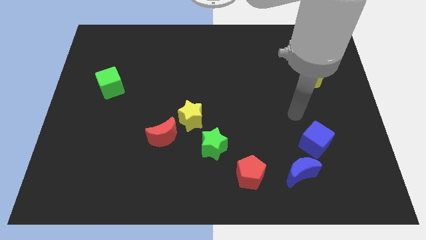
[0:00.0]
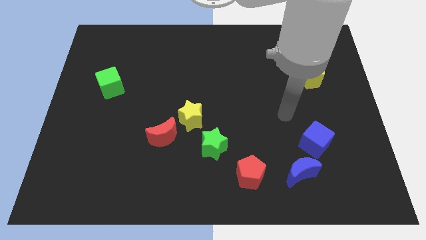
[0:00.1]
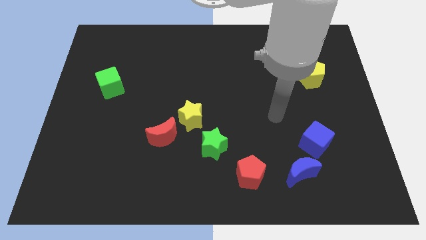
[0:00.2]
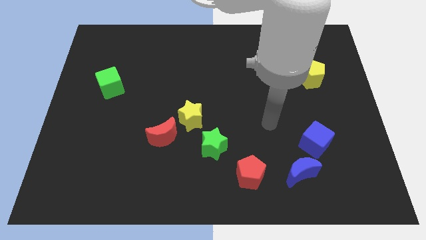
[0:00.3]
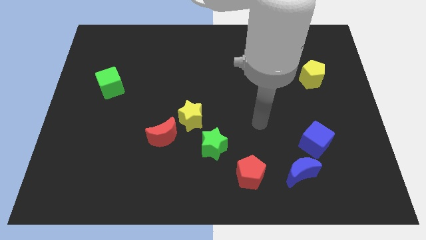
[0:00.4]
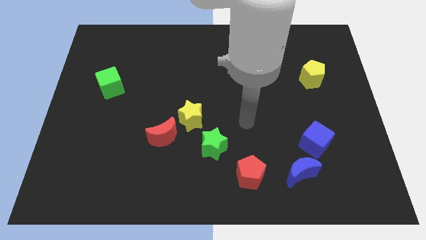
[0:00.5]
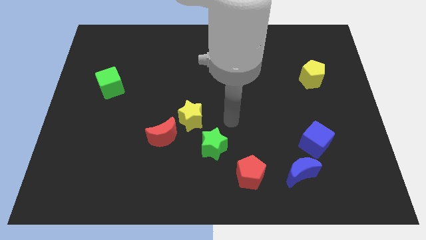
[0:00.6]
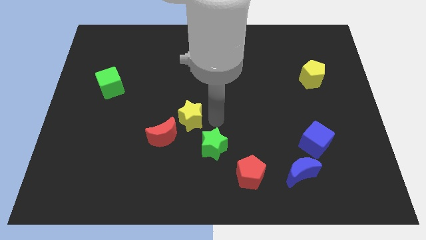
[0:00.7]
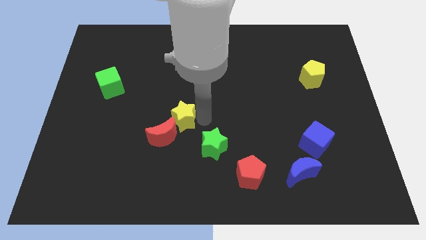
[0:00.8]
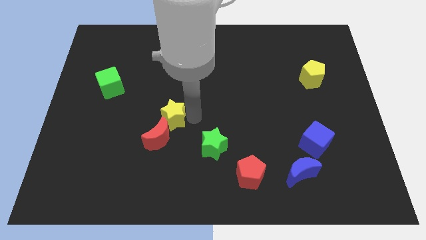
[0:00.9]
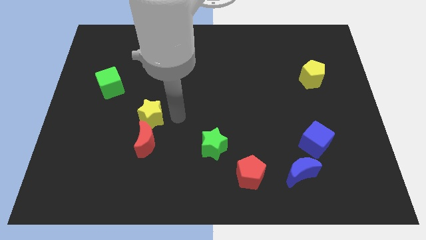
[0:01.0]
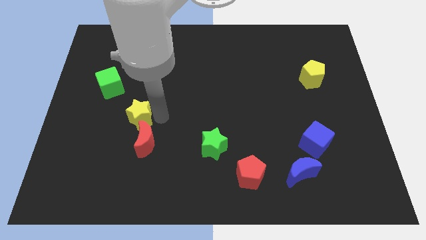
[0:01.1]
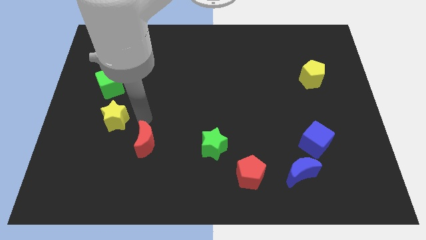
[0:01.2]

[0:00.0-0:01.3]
pull the red moon apart from the yellow star

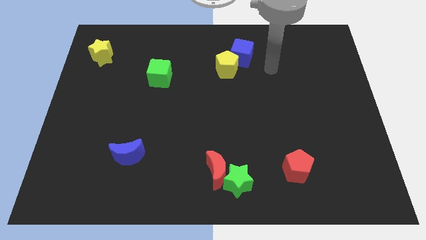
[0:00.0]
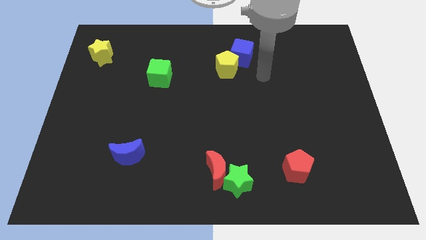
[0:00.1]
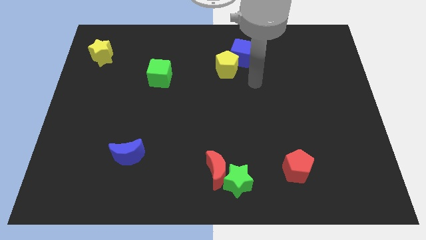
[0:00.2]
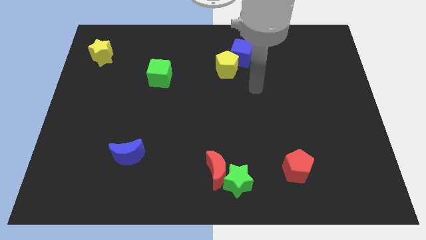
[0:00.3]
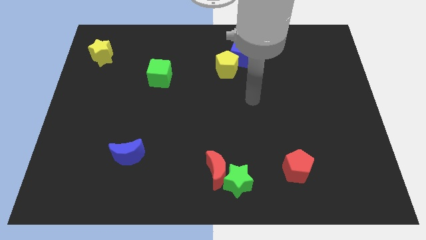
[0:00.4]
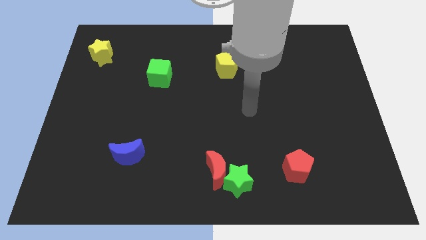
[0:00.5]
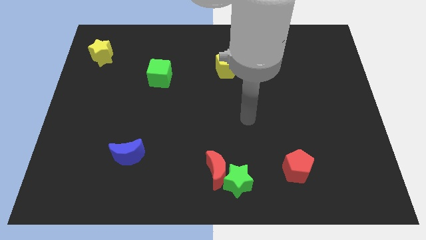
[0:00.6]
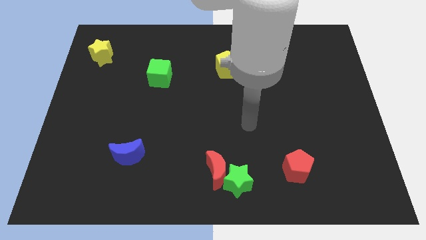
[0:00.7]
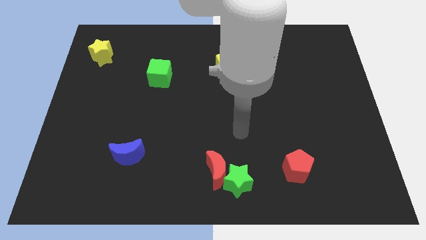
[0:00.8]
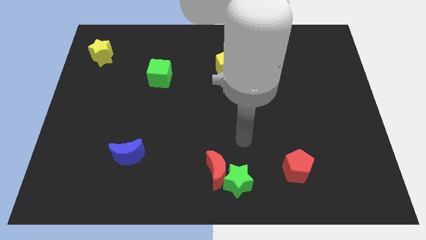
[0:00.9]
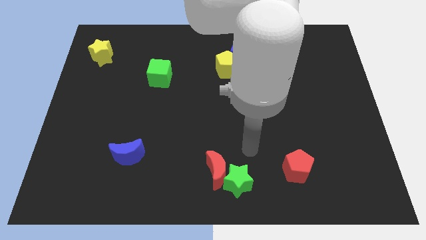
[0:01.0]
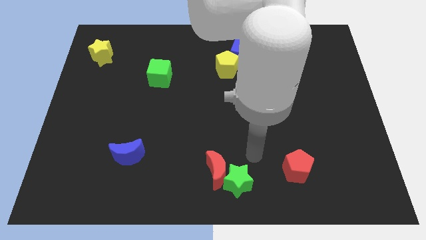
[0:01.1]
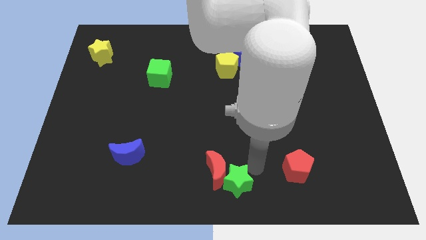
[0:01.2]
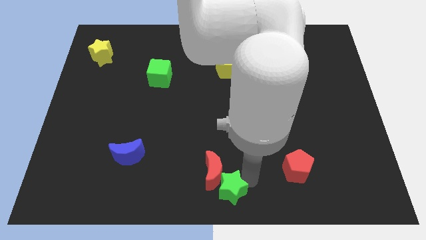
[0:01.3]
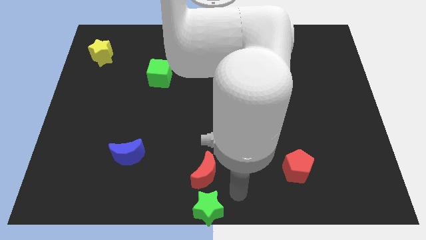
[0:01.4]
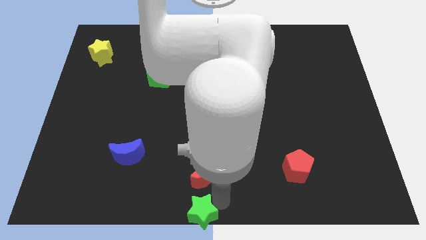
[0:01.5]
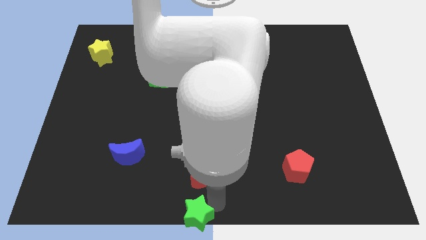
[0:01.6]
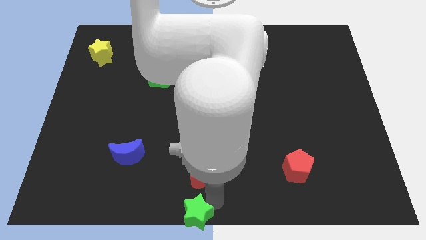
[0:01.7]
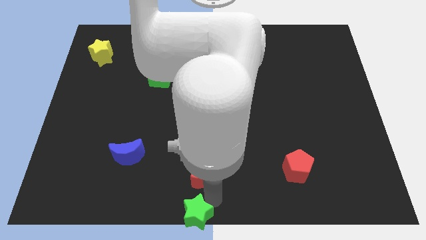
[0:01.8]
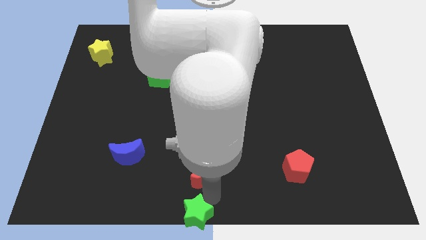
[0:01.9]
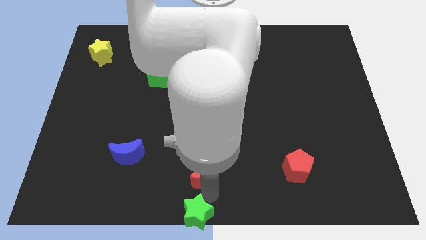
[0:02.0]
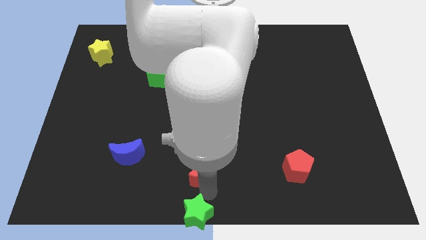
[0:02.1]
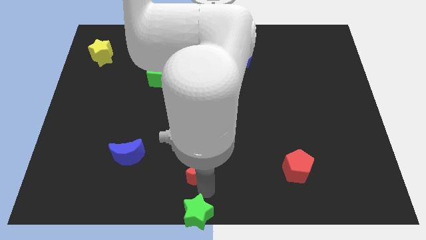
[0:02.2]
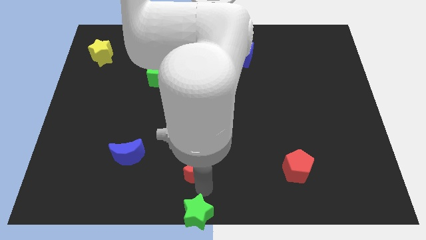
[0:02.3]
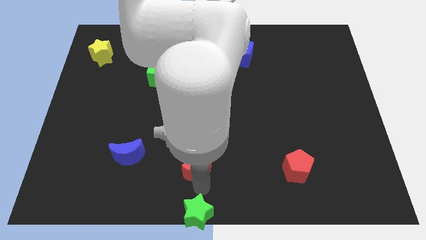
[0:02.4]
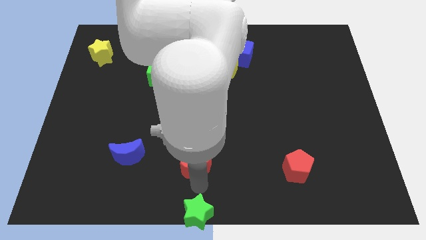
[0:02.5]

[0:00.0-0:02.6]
separate the red moon from the green star

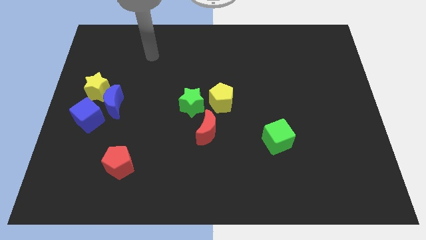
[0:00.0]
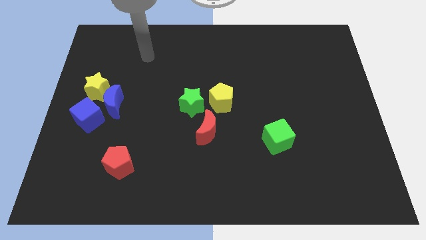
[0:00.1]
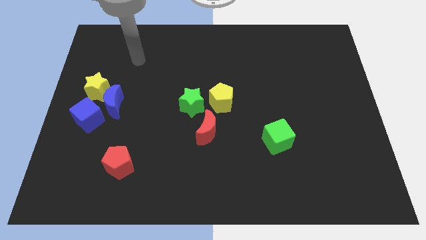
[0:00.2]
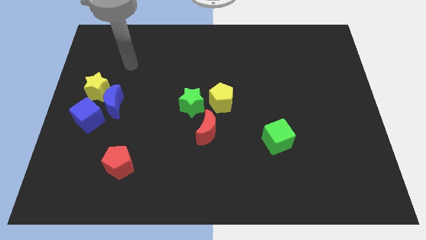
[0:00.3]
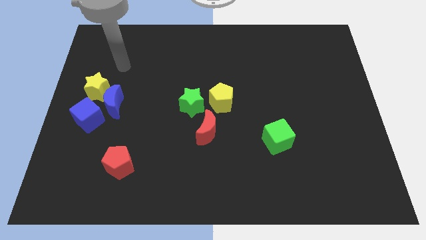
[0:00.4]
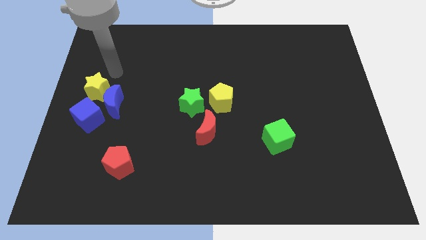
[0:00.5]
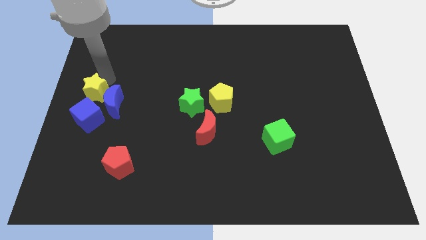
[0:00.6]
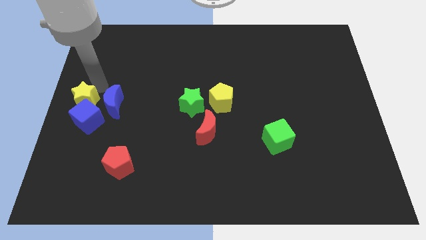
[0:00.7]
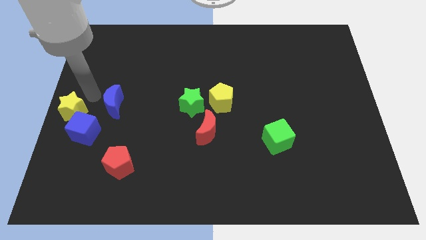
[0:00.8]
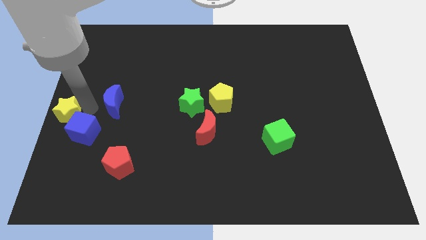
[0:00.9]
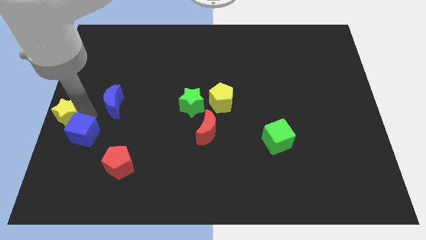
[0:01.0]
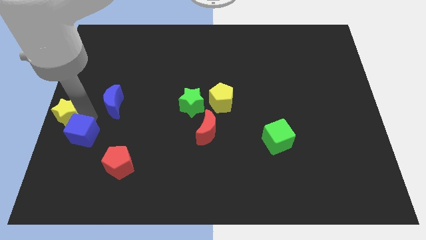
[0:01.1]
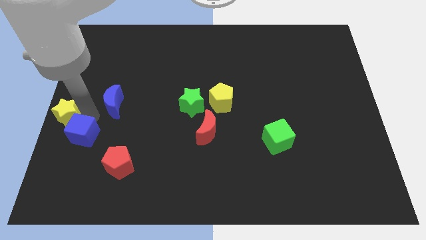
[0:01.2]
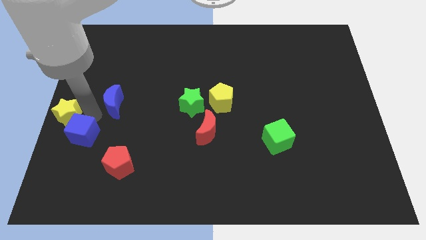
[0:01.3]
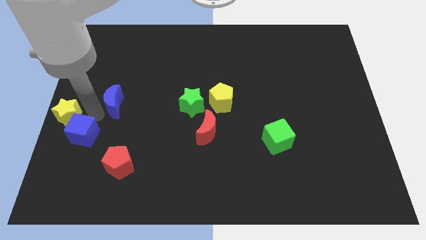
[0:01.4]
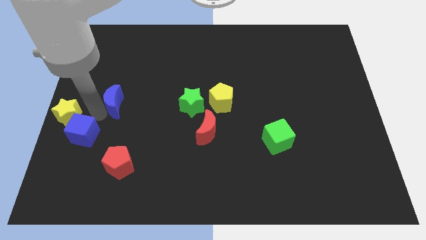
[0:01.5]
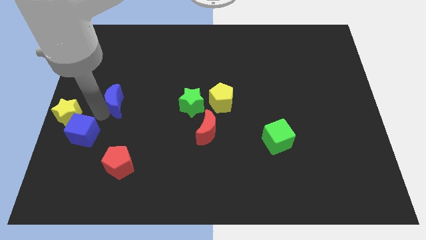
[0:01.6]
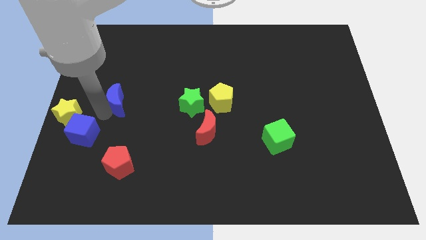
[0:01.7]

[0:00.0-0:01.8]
move the blue moon away from the blue cube and yellow star

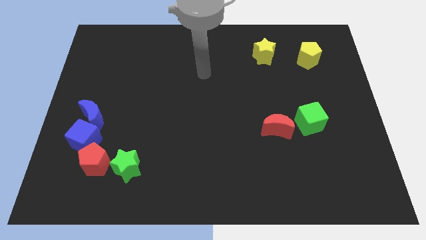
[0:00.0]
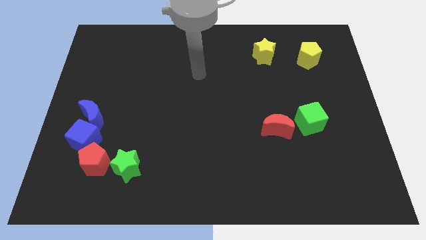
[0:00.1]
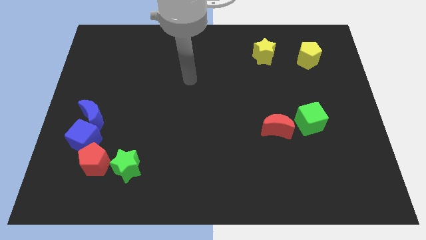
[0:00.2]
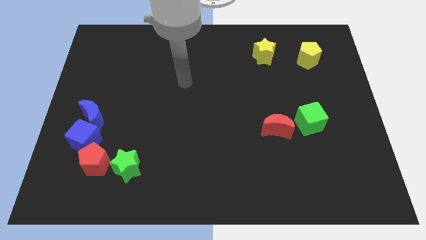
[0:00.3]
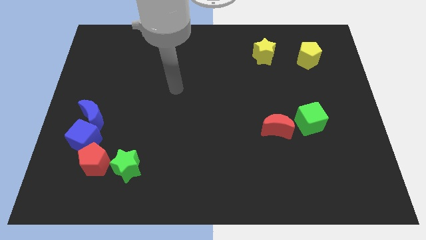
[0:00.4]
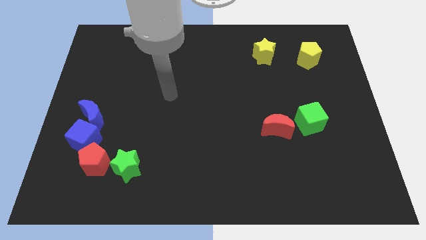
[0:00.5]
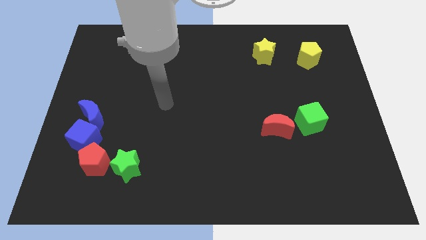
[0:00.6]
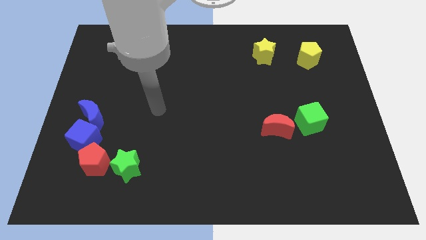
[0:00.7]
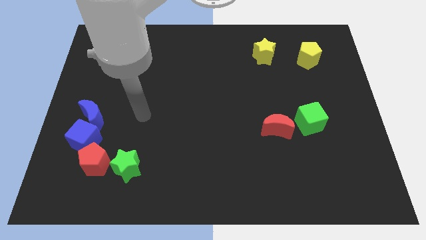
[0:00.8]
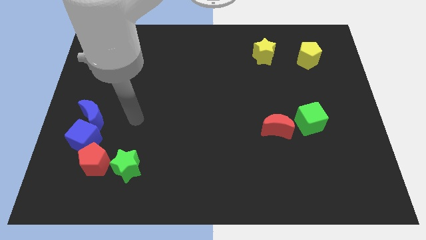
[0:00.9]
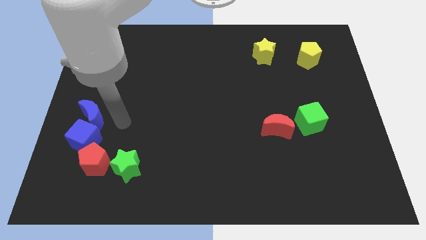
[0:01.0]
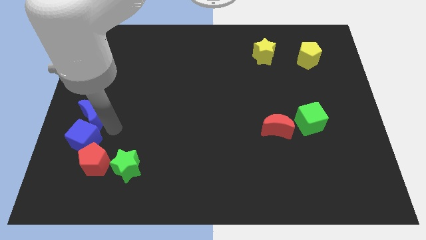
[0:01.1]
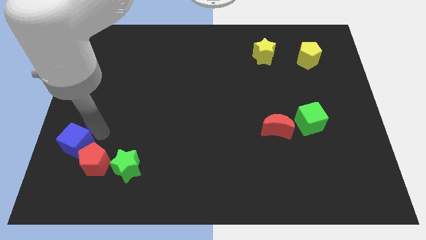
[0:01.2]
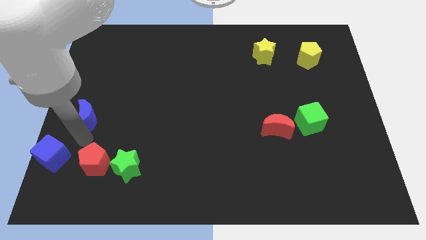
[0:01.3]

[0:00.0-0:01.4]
separate the blue moon from the blue cube

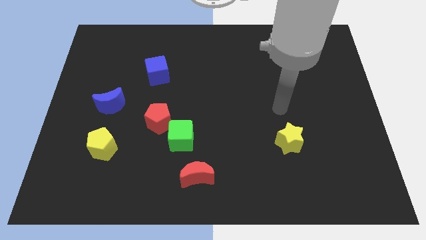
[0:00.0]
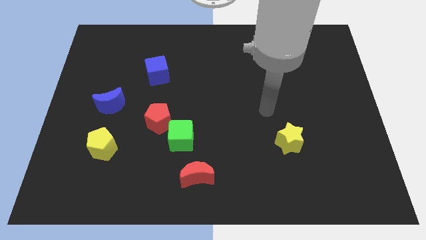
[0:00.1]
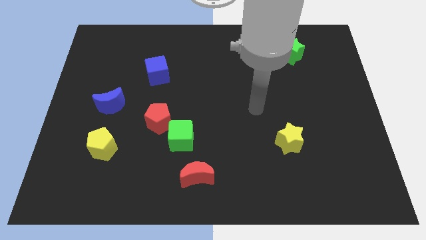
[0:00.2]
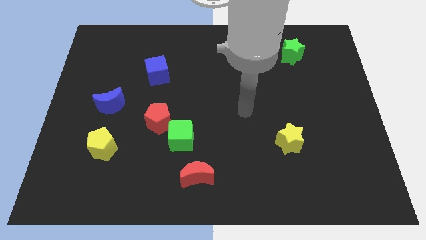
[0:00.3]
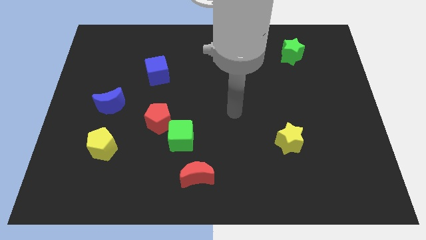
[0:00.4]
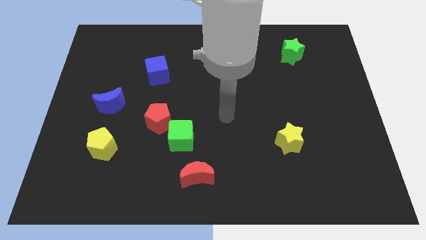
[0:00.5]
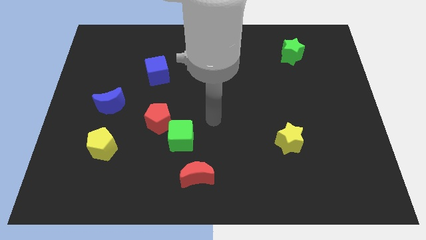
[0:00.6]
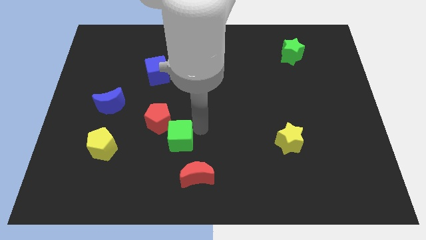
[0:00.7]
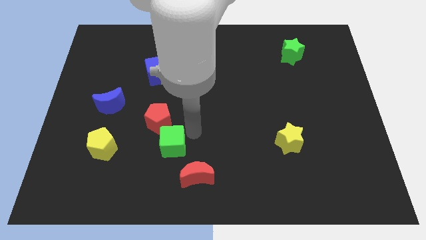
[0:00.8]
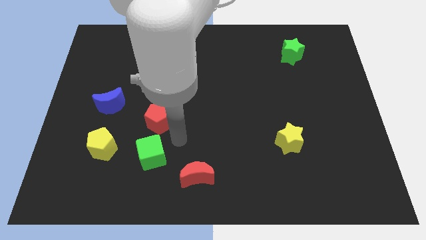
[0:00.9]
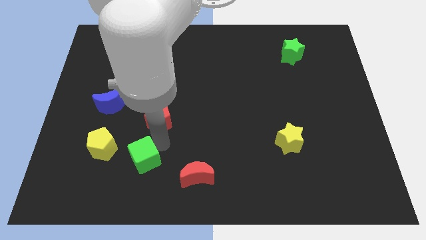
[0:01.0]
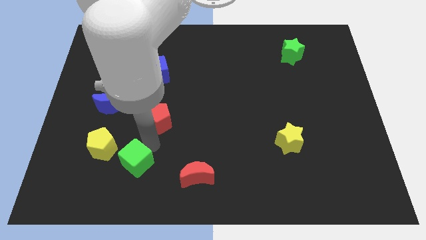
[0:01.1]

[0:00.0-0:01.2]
separate the red pentagon from the green cube

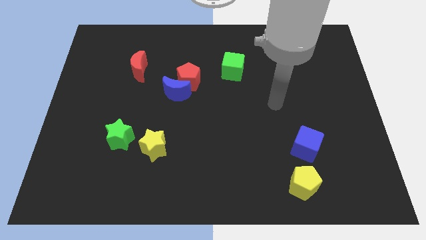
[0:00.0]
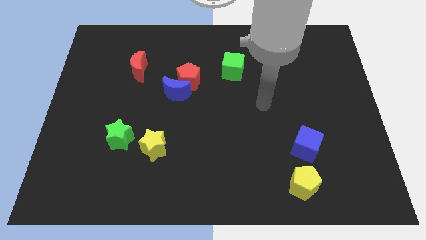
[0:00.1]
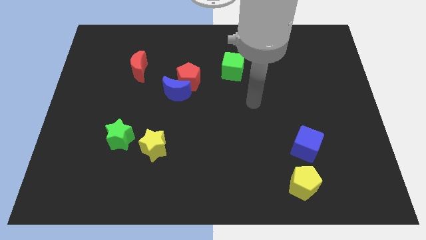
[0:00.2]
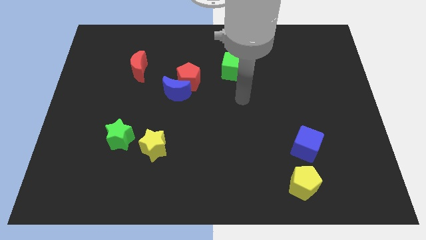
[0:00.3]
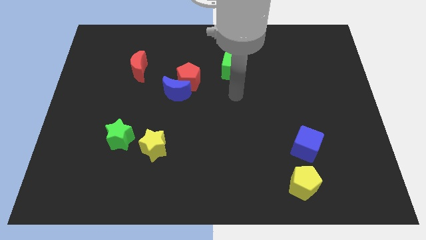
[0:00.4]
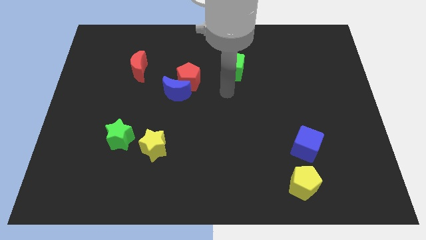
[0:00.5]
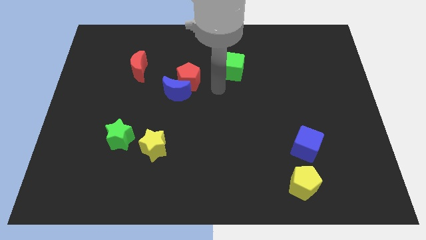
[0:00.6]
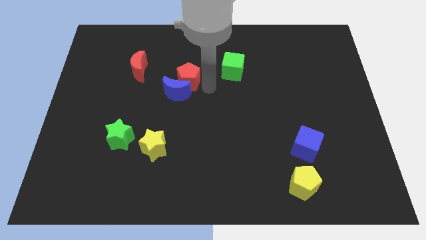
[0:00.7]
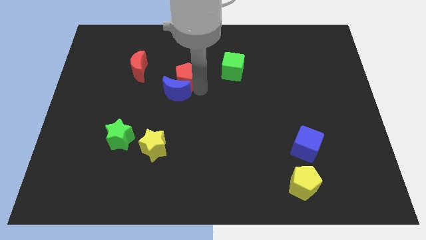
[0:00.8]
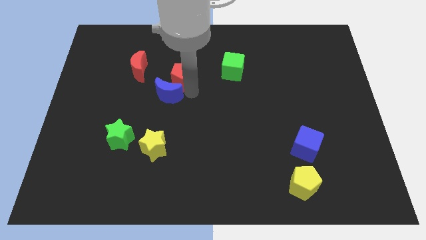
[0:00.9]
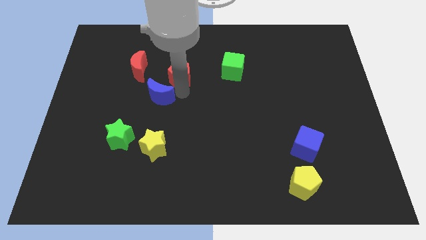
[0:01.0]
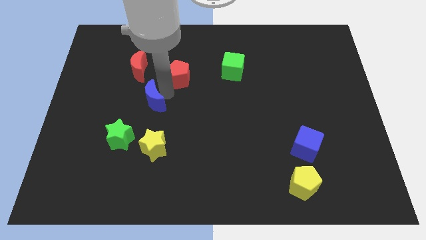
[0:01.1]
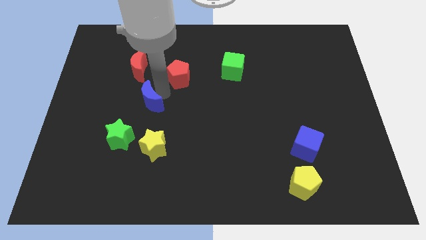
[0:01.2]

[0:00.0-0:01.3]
move the red pentagon away from the blue moon
